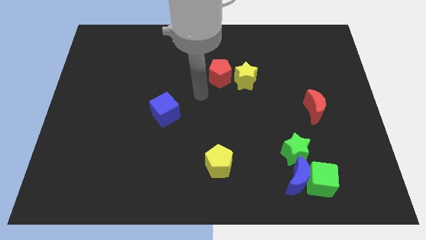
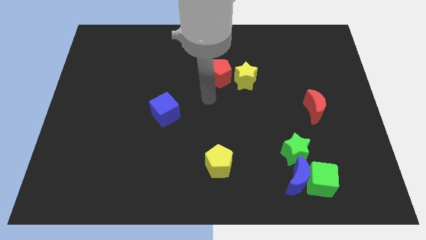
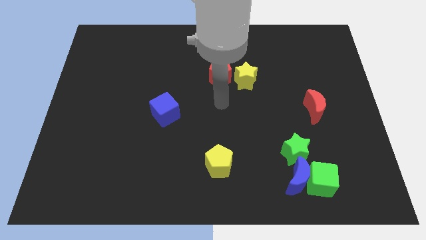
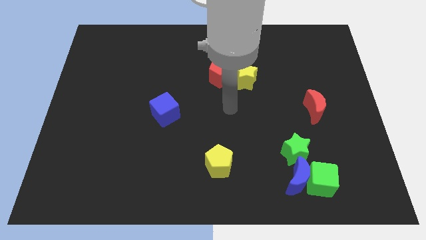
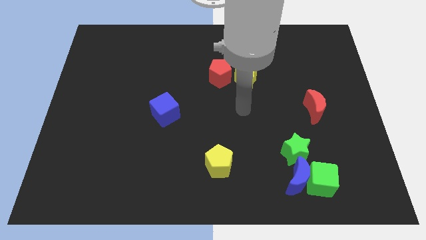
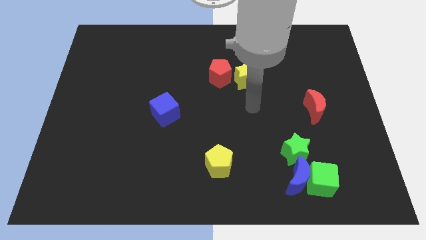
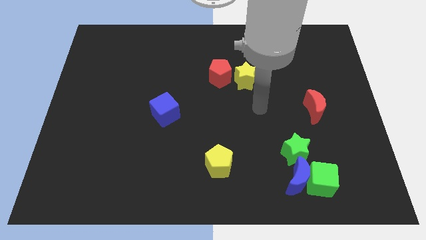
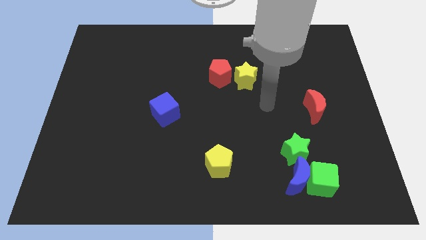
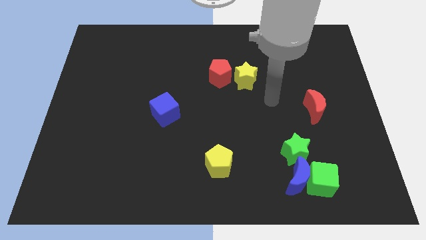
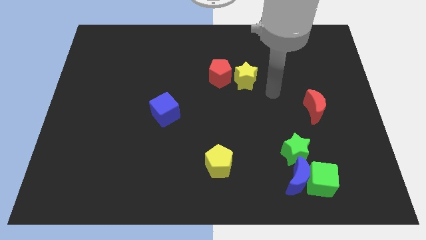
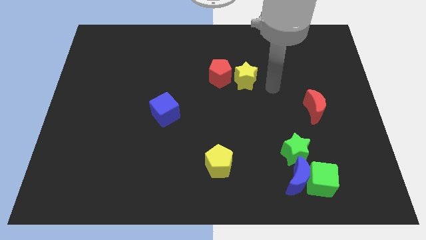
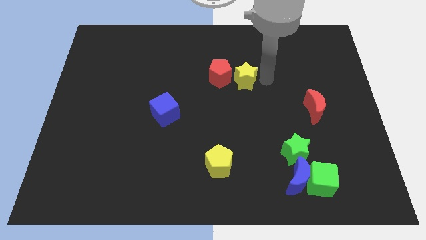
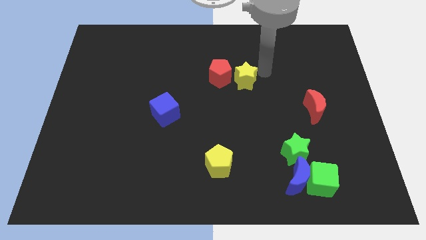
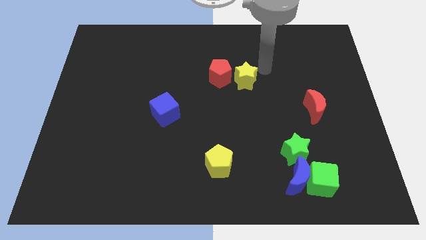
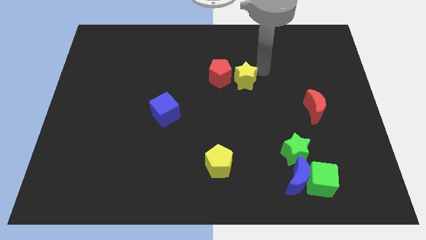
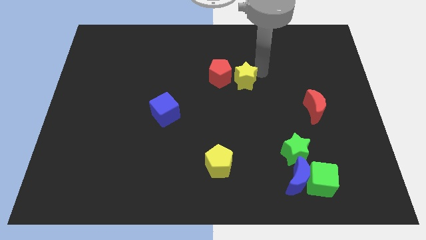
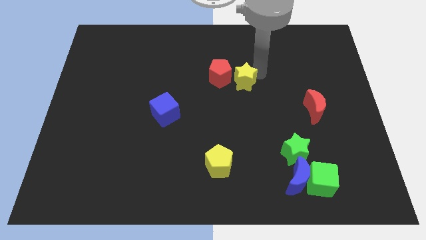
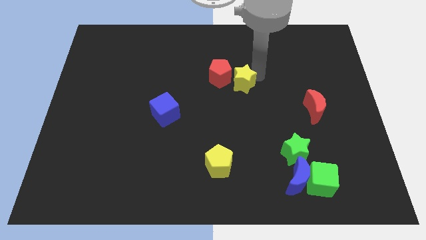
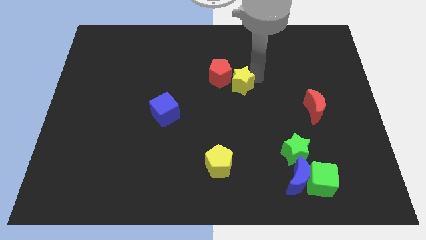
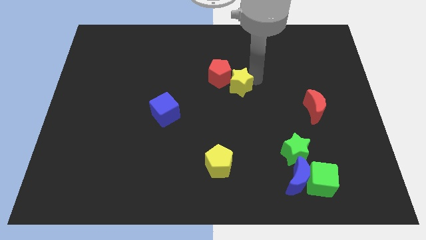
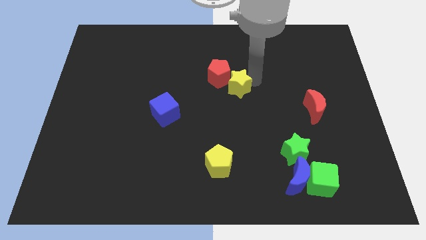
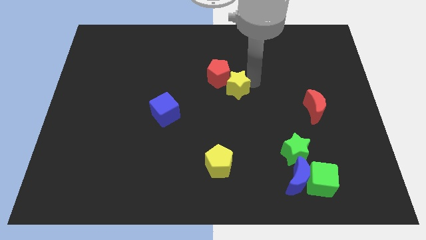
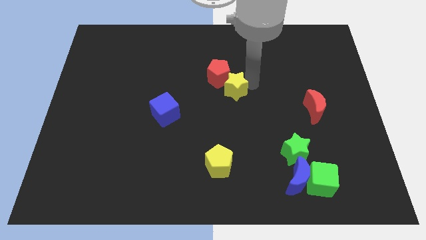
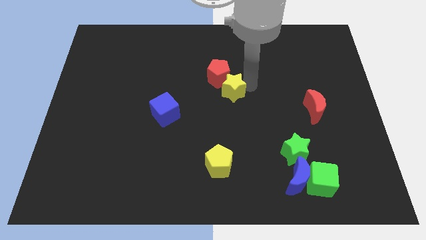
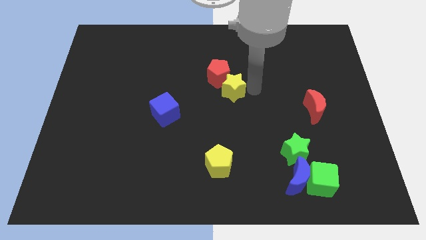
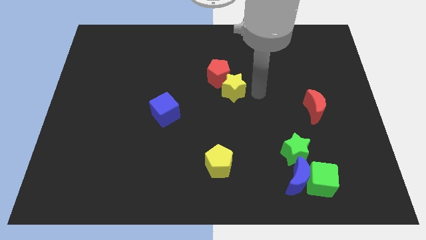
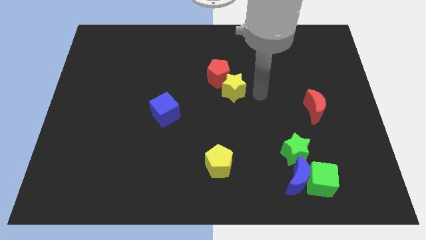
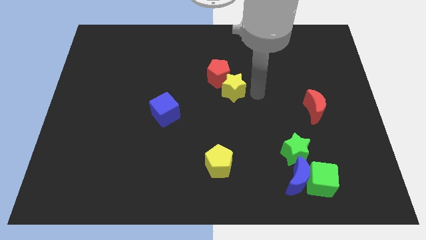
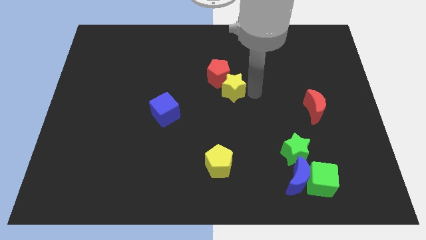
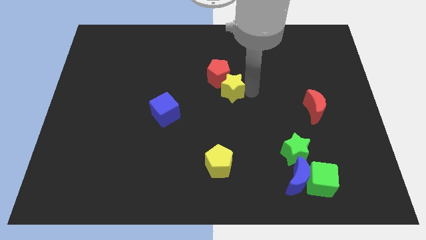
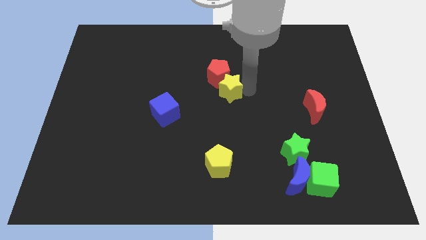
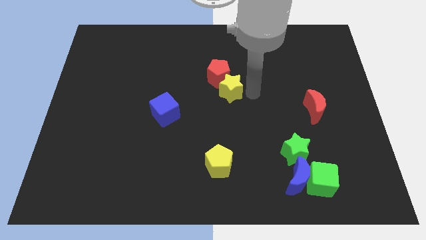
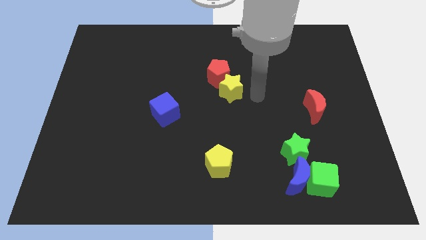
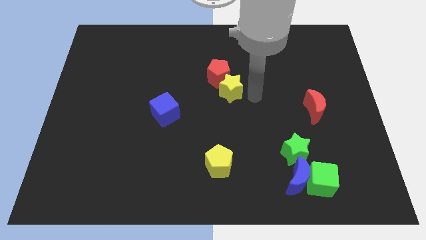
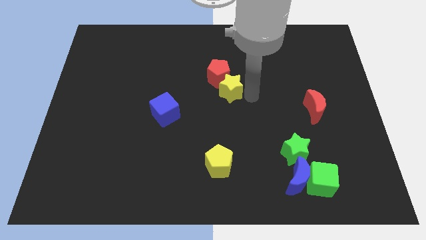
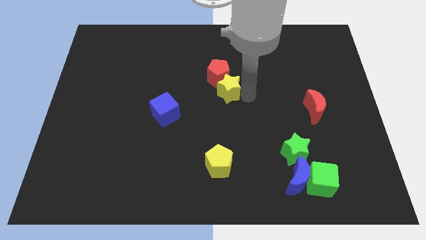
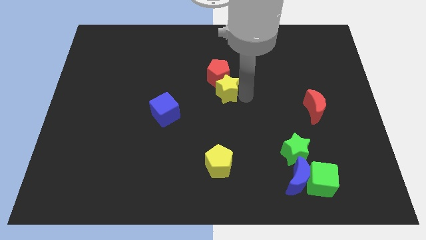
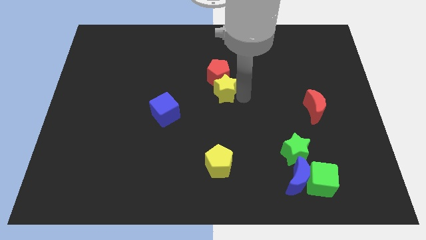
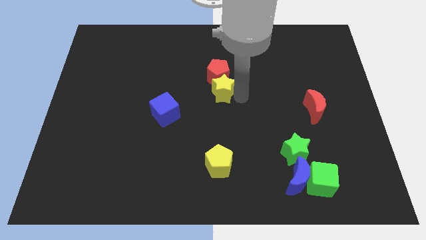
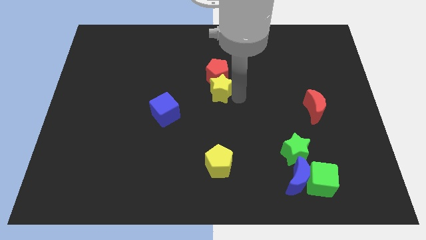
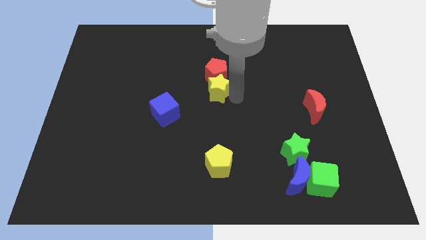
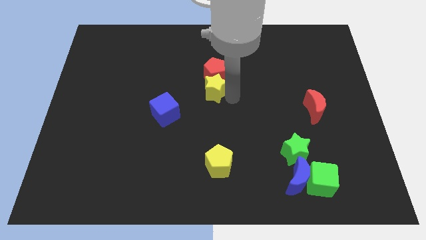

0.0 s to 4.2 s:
slightly slide the yellow star to the left

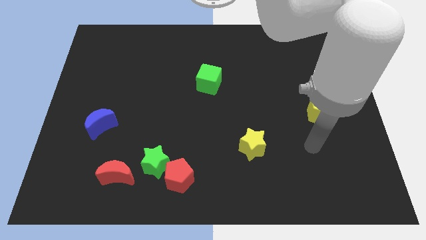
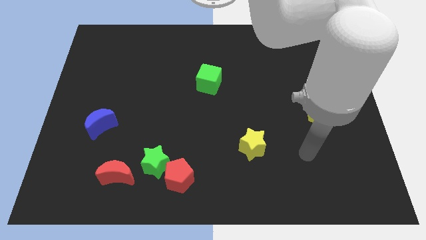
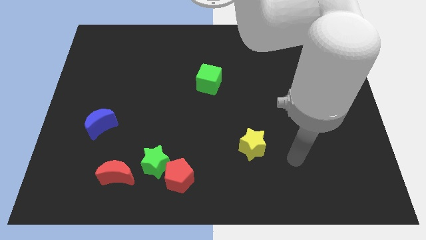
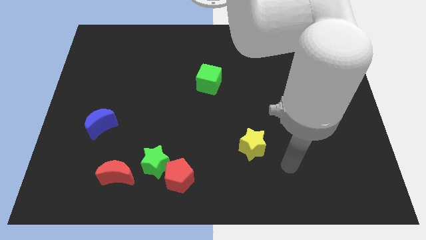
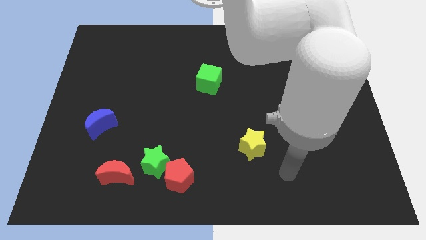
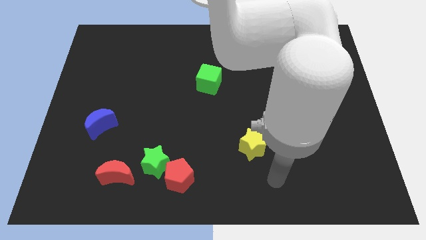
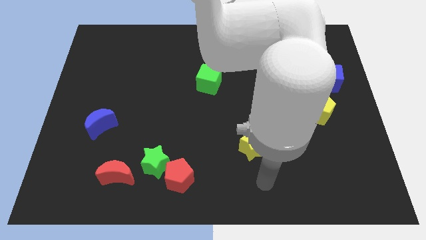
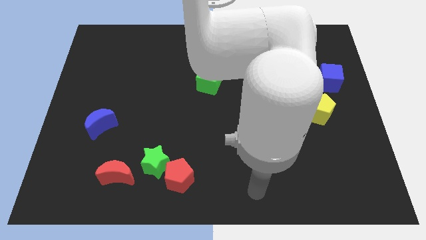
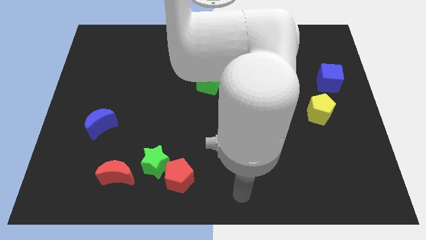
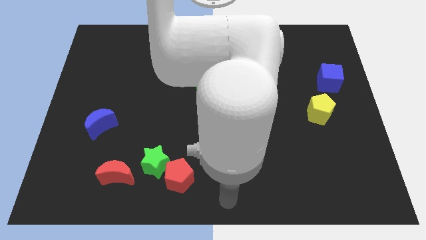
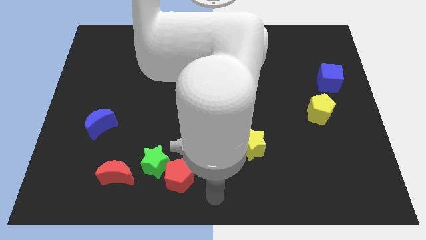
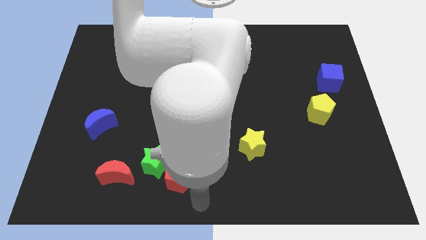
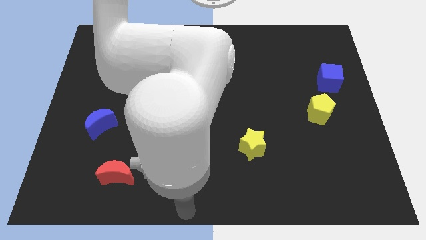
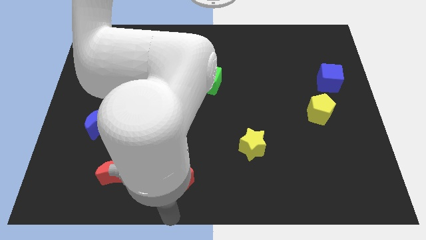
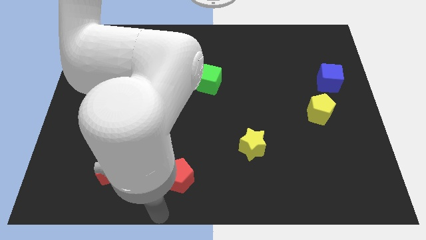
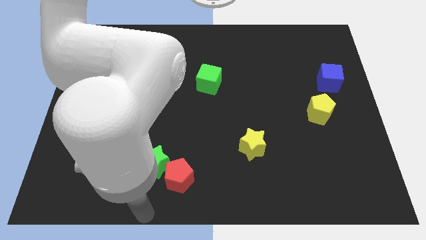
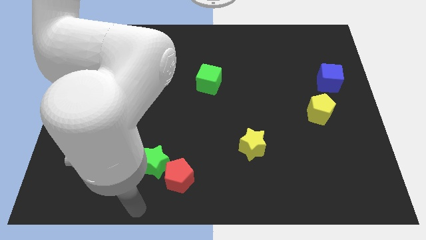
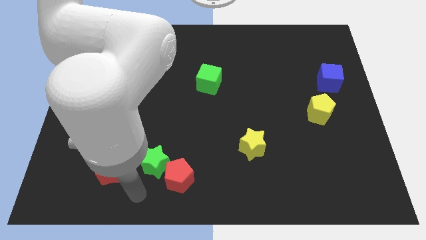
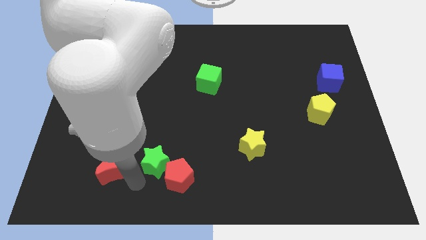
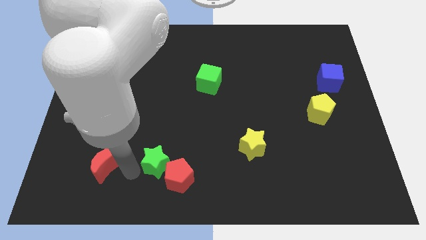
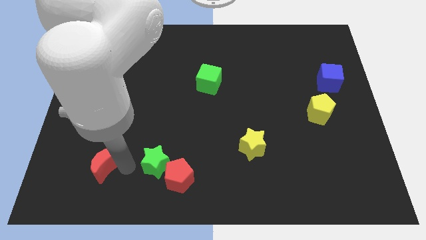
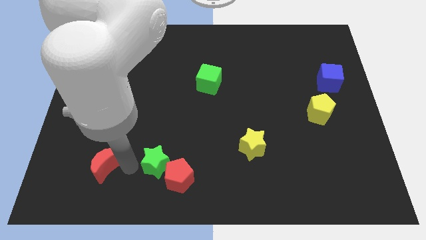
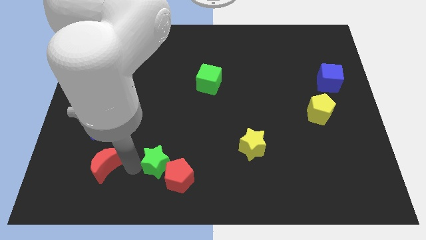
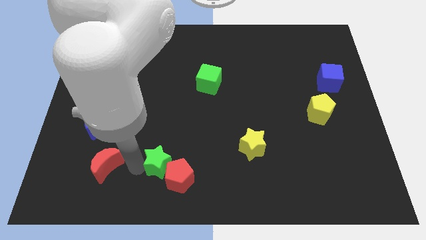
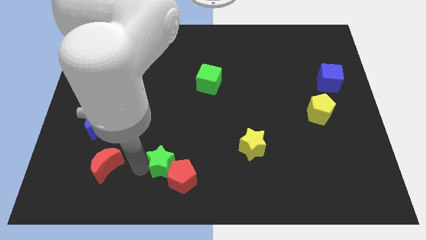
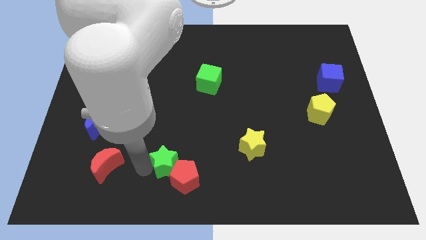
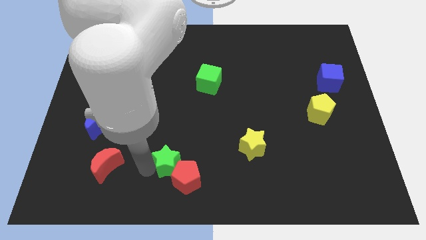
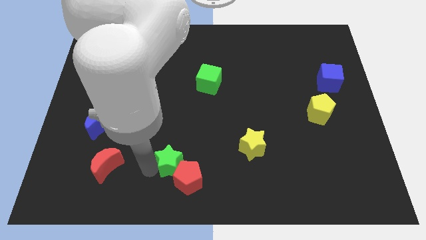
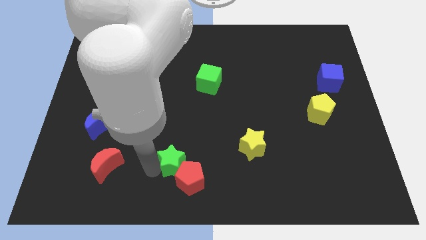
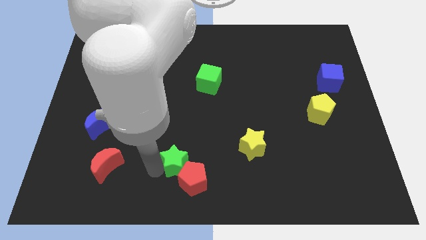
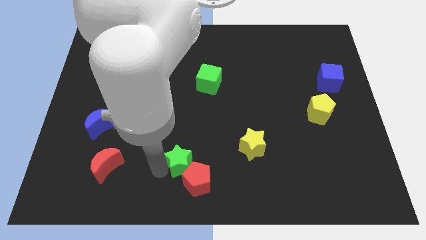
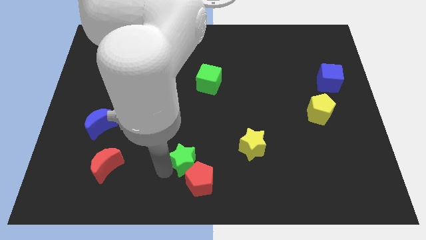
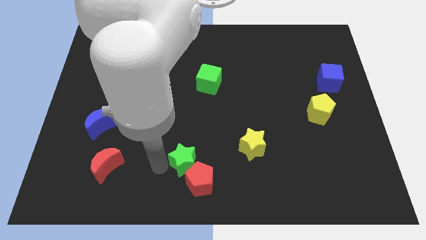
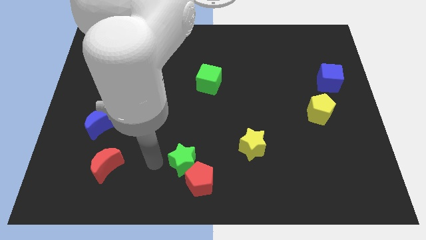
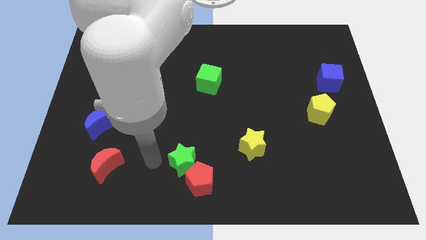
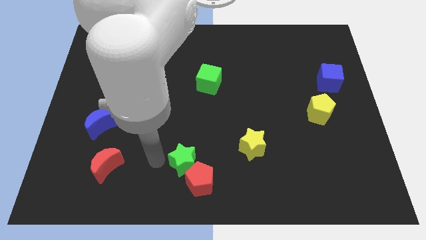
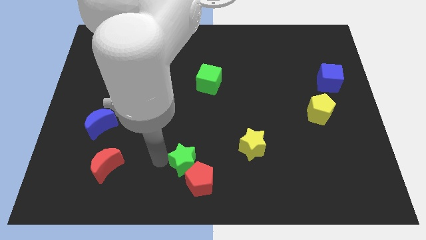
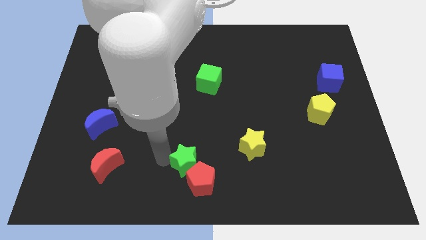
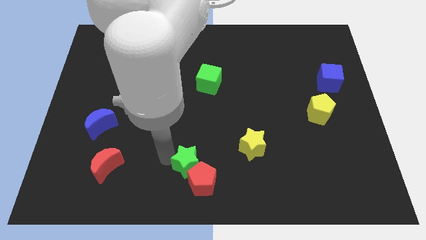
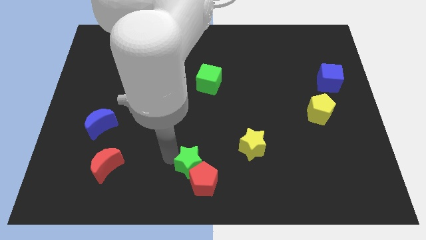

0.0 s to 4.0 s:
slightly slide the green star to the right
